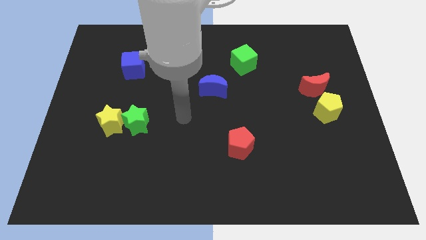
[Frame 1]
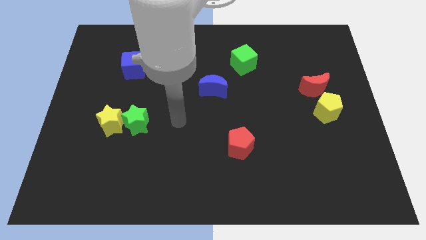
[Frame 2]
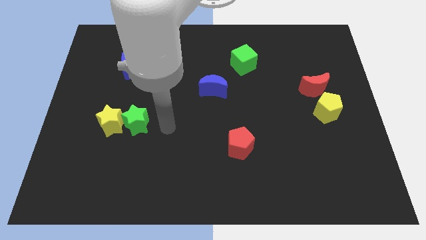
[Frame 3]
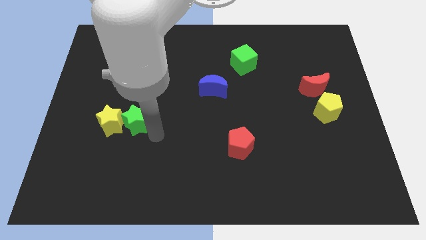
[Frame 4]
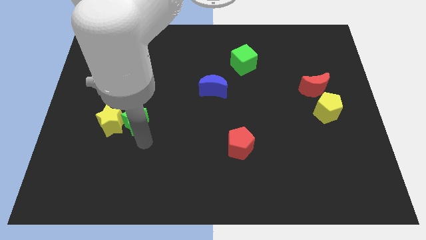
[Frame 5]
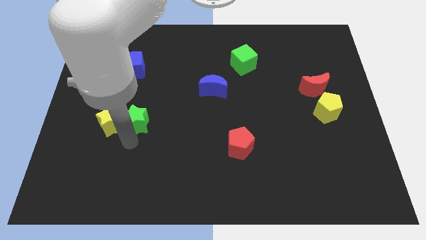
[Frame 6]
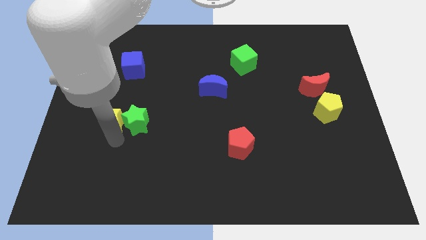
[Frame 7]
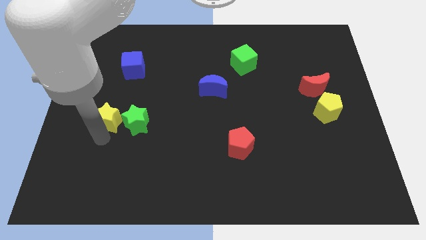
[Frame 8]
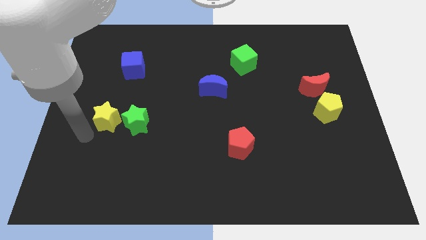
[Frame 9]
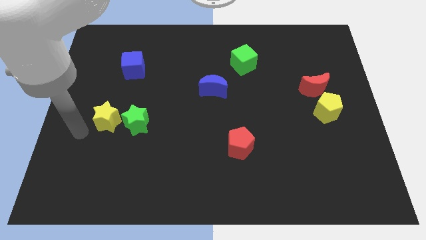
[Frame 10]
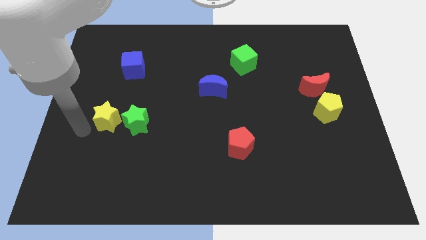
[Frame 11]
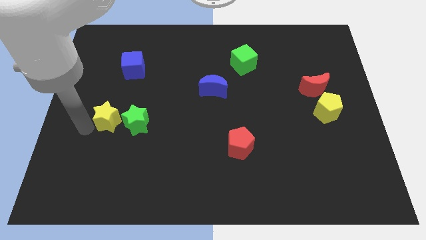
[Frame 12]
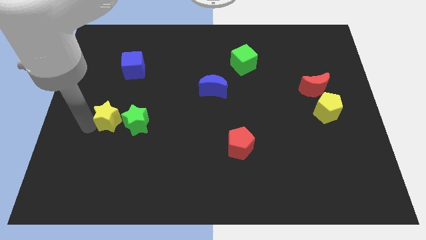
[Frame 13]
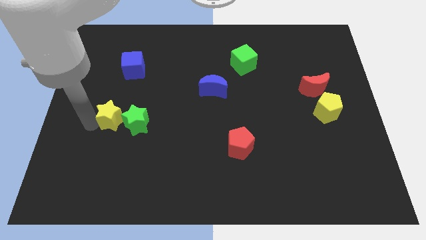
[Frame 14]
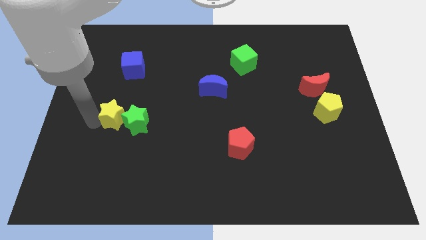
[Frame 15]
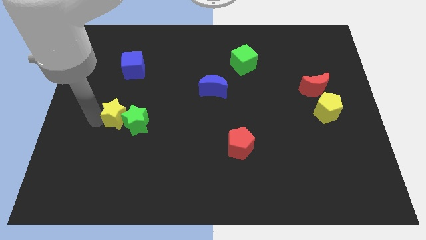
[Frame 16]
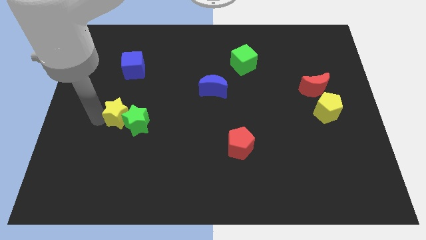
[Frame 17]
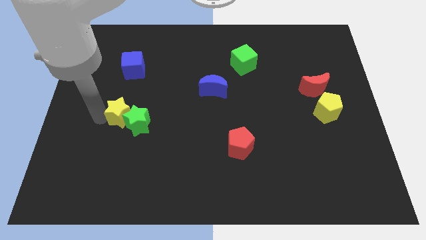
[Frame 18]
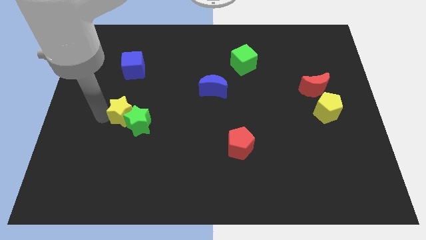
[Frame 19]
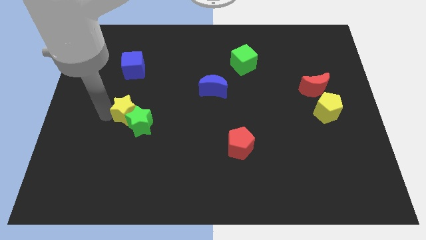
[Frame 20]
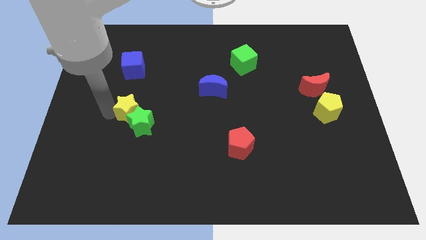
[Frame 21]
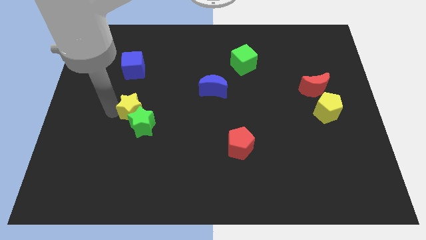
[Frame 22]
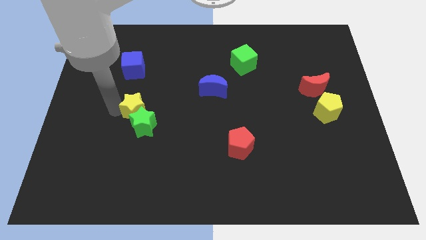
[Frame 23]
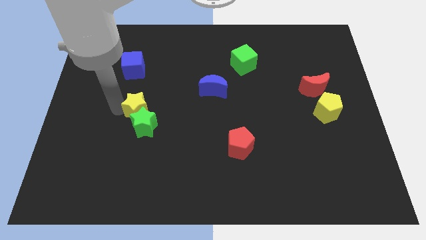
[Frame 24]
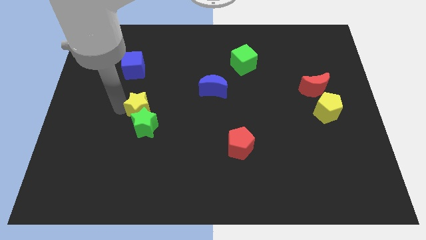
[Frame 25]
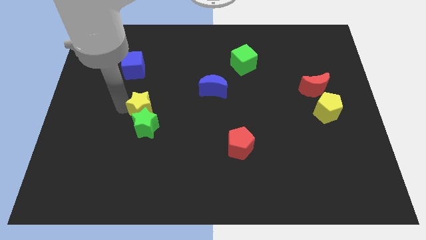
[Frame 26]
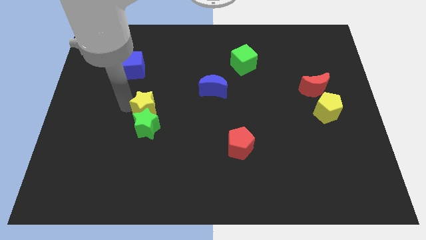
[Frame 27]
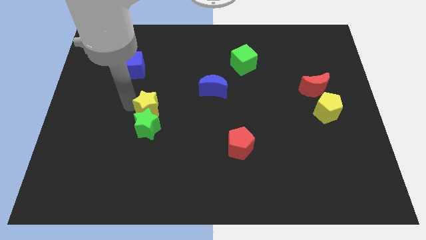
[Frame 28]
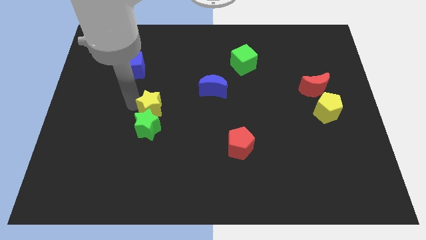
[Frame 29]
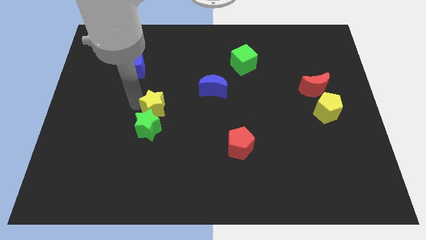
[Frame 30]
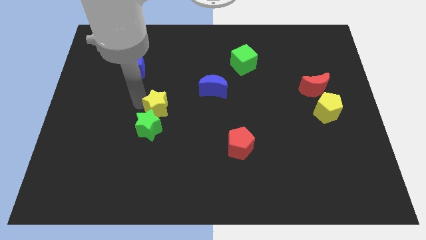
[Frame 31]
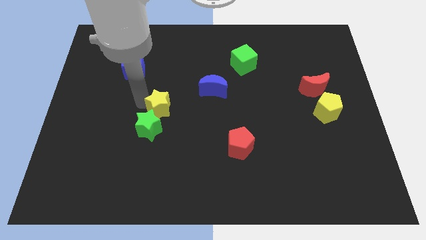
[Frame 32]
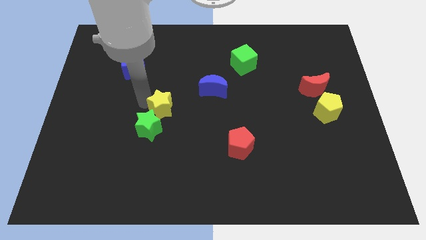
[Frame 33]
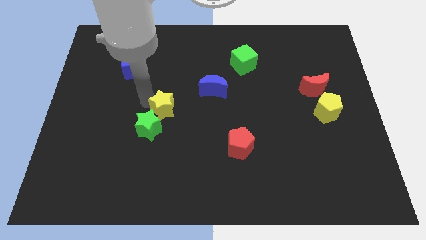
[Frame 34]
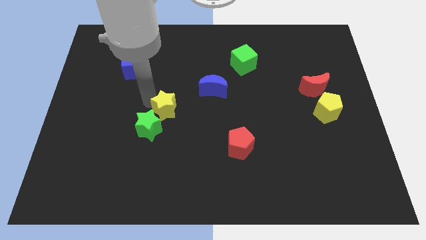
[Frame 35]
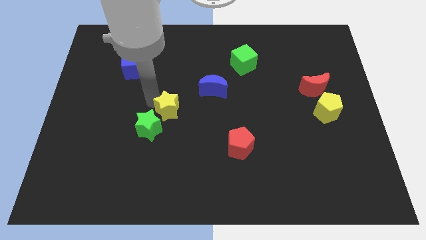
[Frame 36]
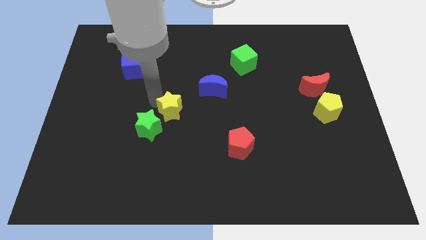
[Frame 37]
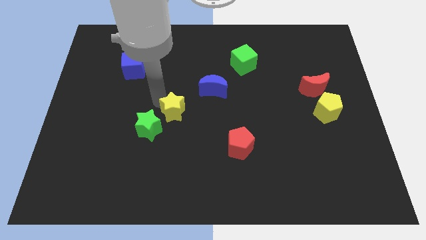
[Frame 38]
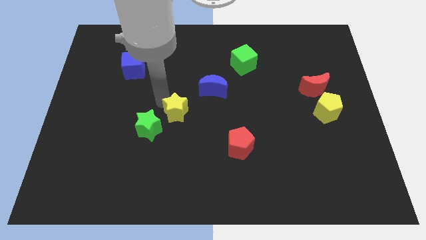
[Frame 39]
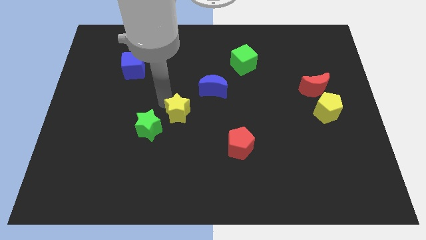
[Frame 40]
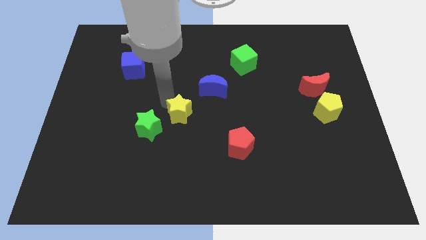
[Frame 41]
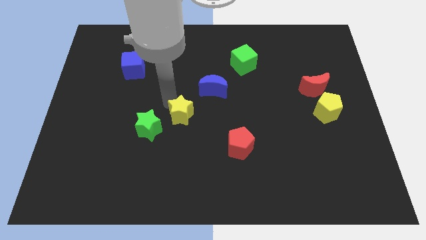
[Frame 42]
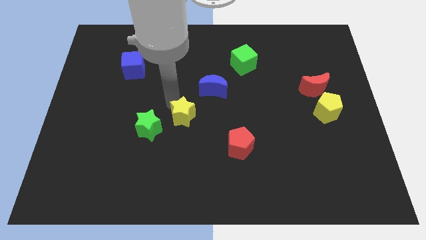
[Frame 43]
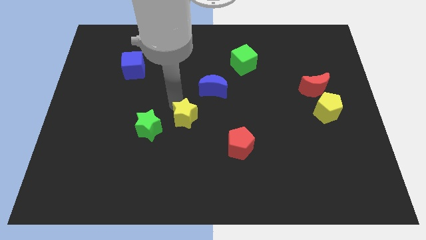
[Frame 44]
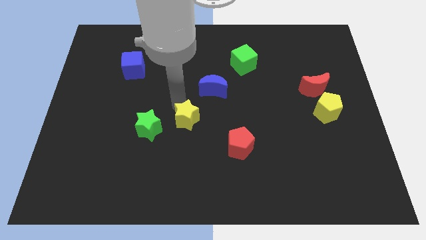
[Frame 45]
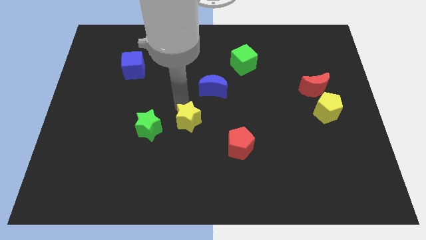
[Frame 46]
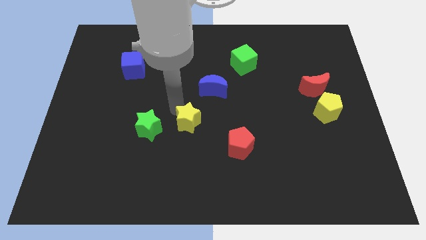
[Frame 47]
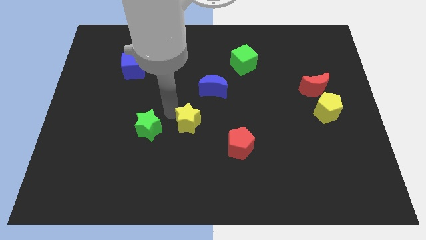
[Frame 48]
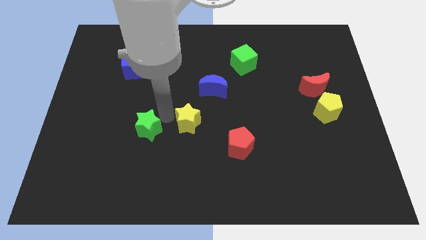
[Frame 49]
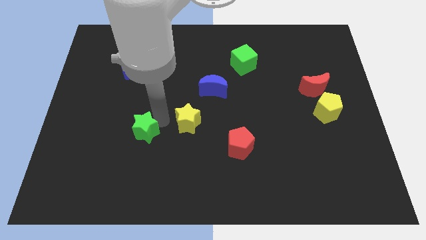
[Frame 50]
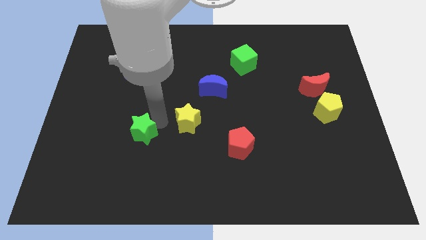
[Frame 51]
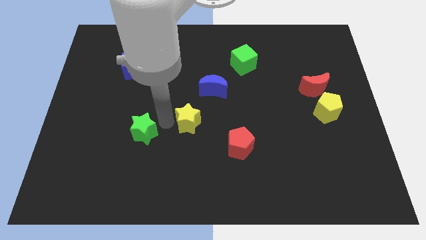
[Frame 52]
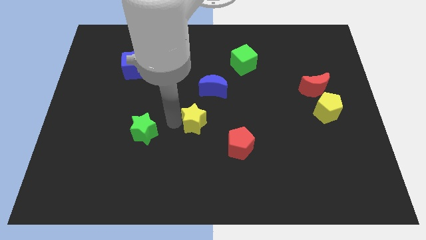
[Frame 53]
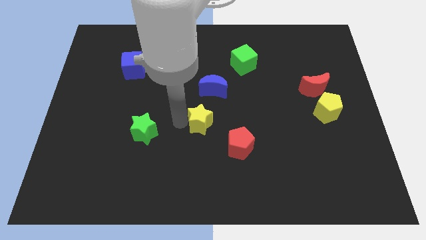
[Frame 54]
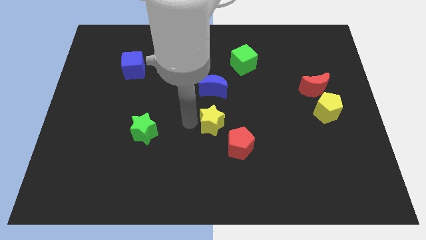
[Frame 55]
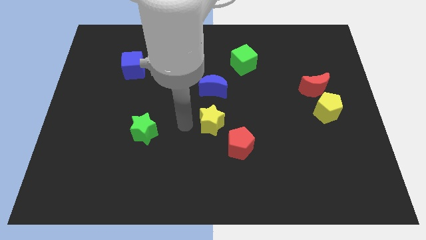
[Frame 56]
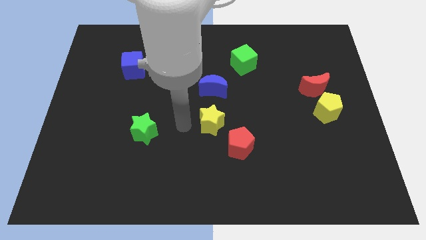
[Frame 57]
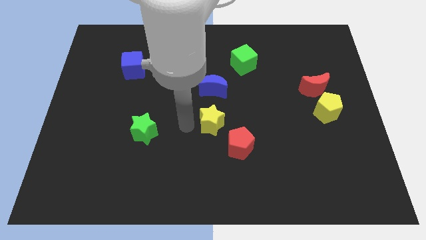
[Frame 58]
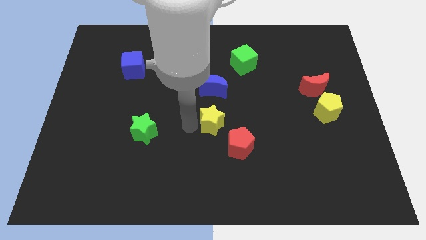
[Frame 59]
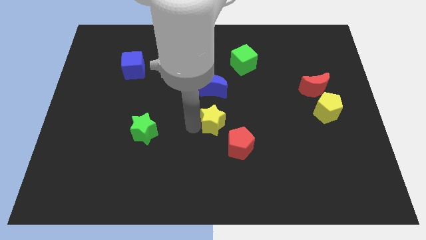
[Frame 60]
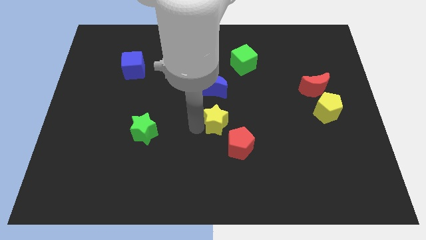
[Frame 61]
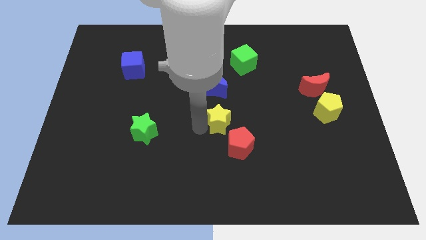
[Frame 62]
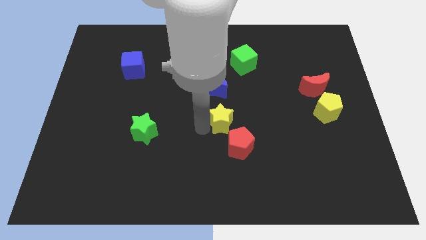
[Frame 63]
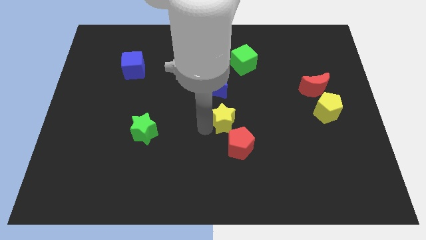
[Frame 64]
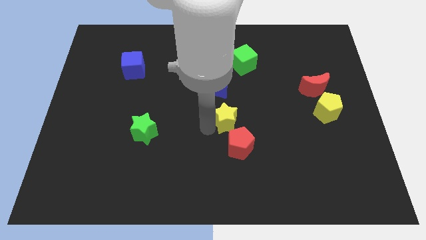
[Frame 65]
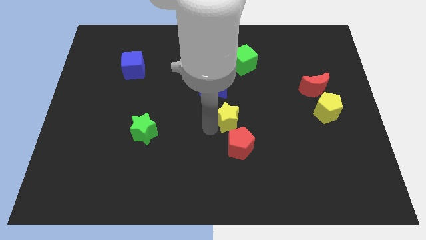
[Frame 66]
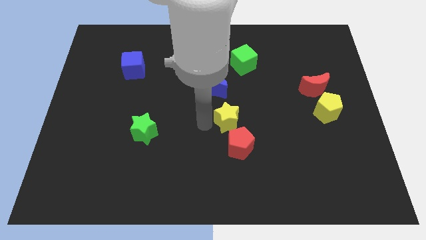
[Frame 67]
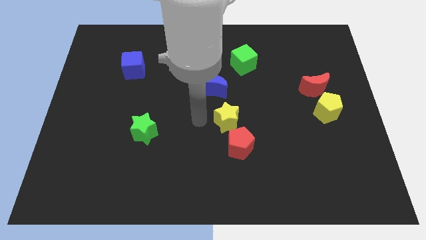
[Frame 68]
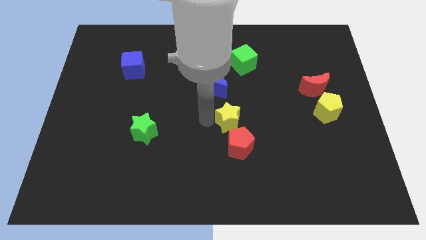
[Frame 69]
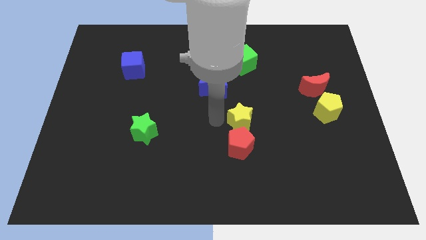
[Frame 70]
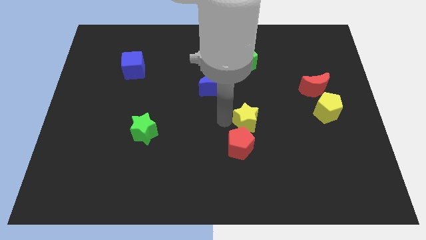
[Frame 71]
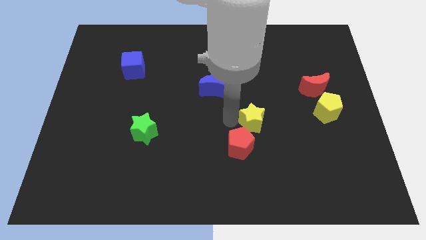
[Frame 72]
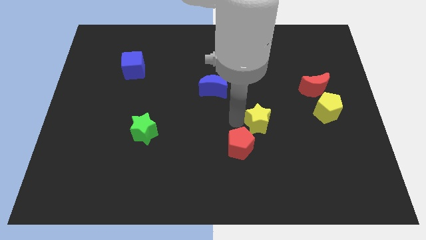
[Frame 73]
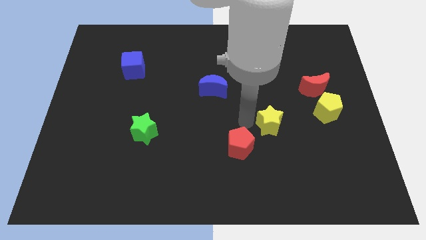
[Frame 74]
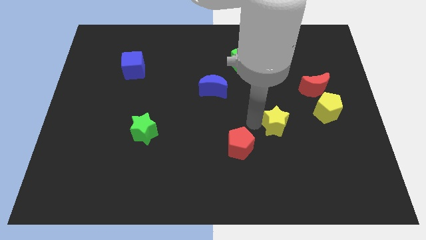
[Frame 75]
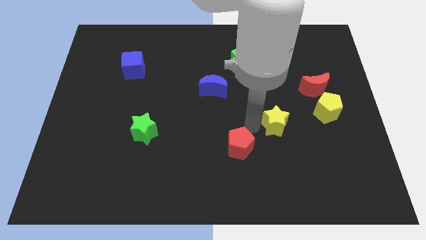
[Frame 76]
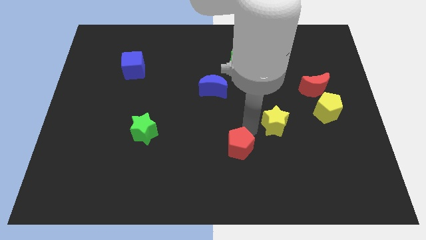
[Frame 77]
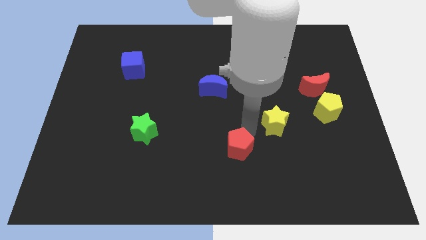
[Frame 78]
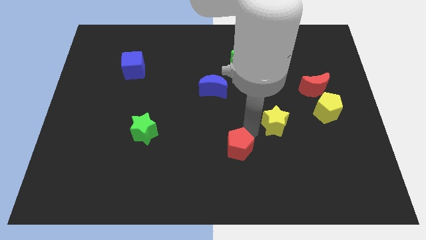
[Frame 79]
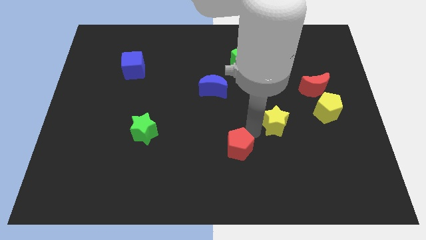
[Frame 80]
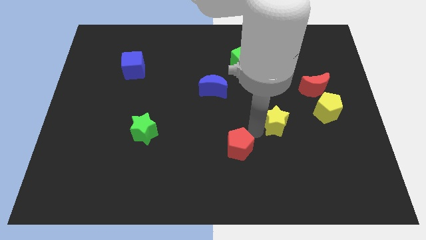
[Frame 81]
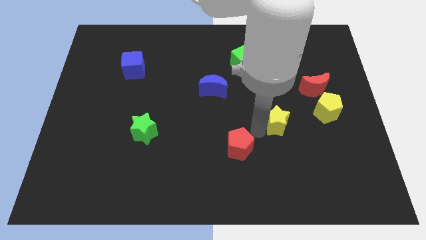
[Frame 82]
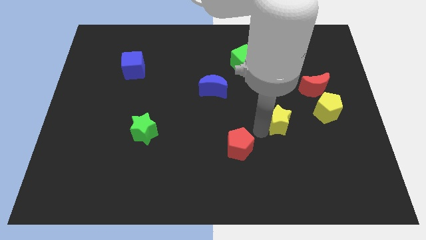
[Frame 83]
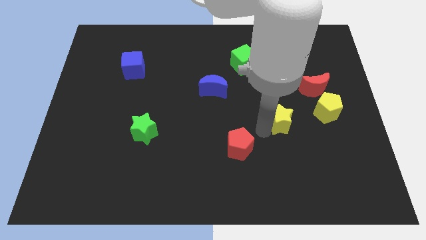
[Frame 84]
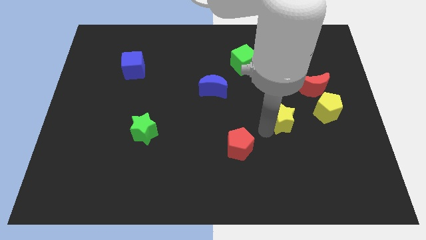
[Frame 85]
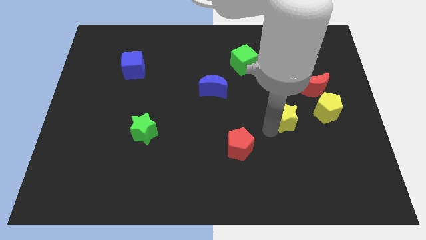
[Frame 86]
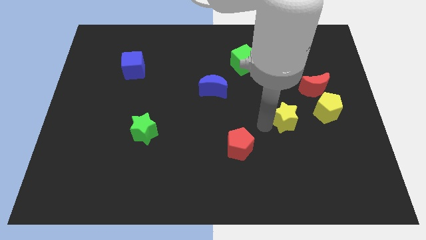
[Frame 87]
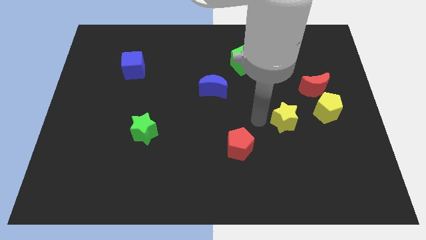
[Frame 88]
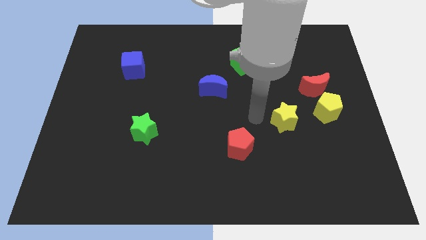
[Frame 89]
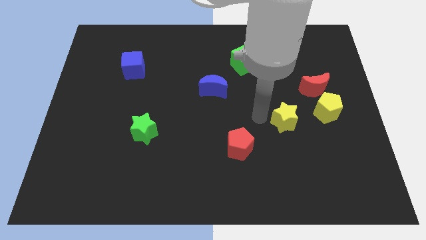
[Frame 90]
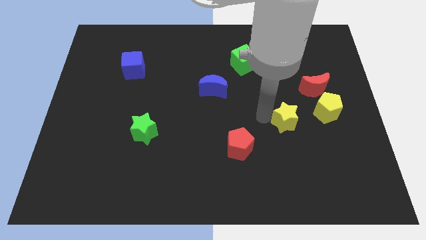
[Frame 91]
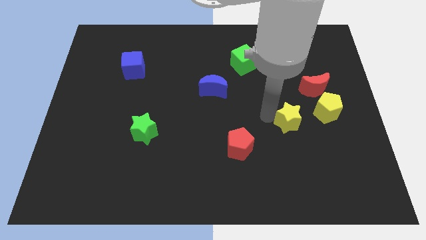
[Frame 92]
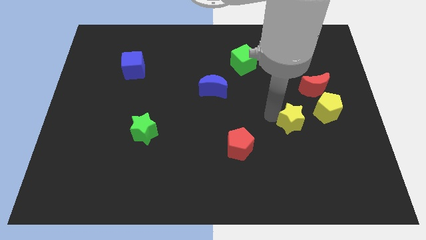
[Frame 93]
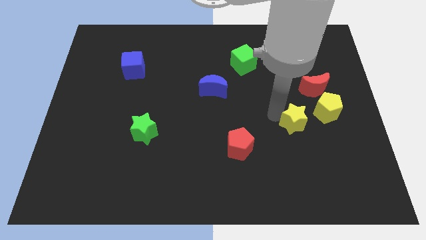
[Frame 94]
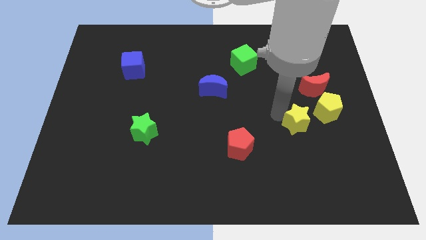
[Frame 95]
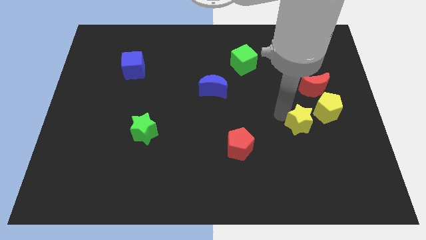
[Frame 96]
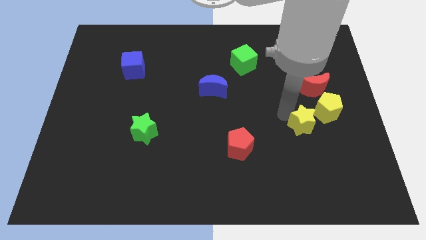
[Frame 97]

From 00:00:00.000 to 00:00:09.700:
slide the yellow star to the bottom side of the red moon
